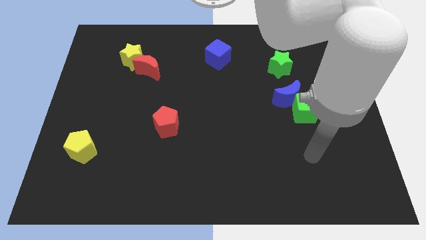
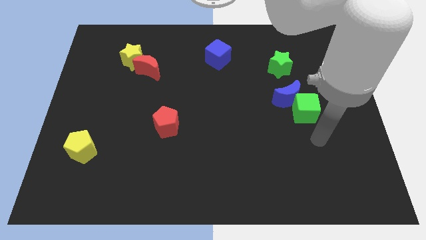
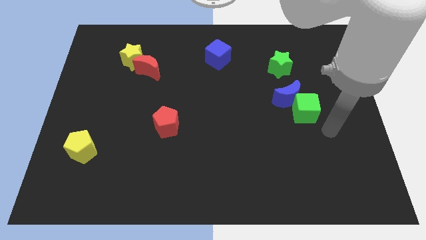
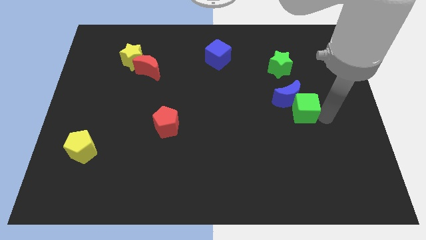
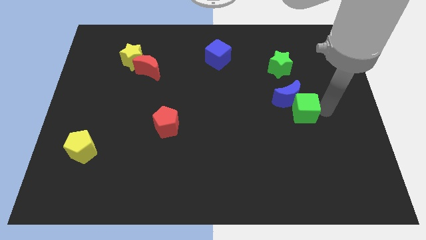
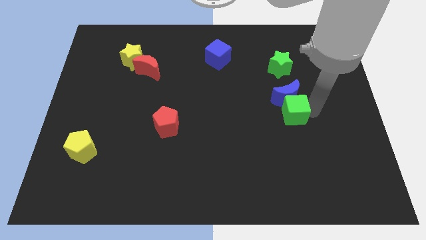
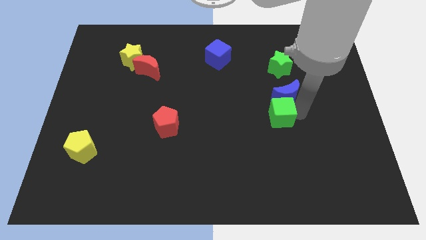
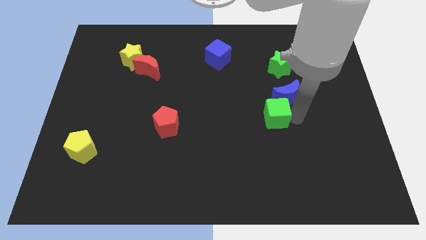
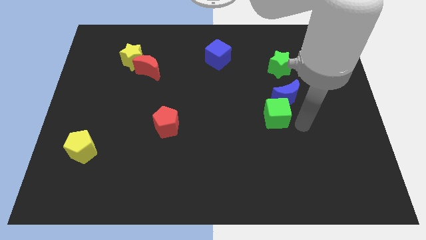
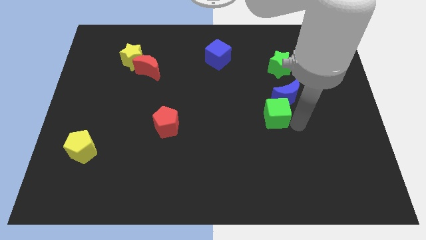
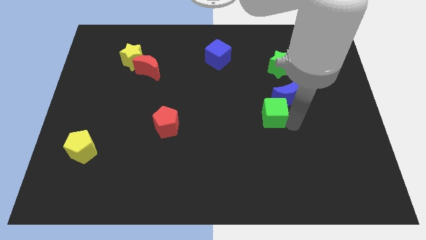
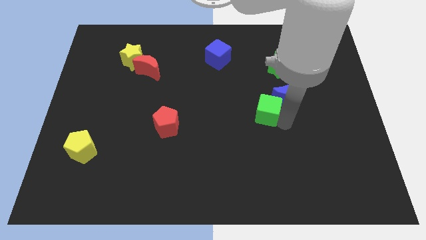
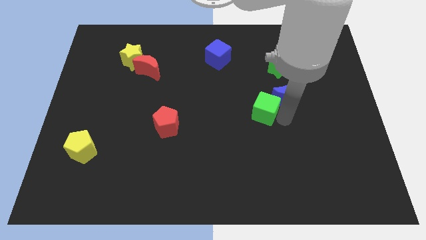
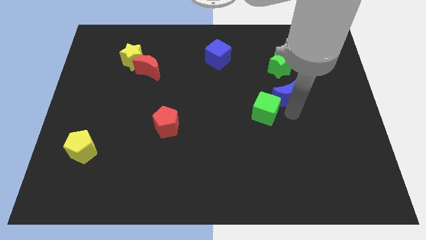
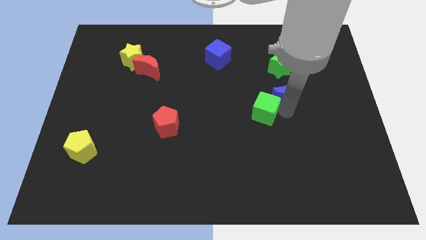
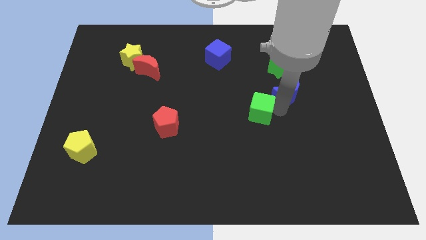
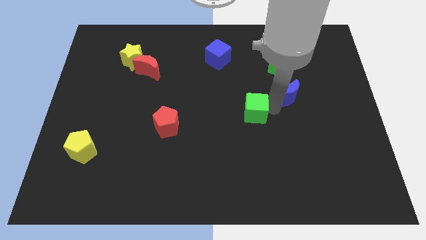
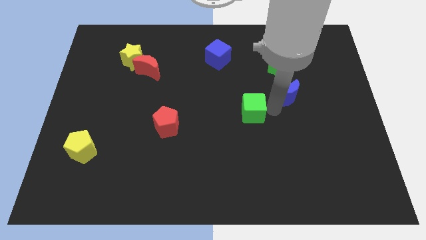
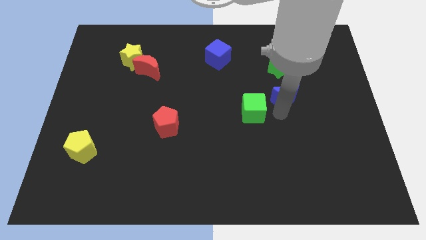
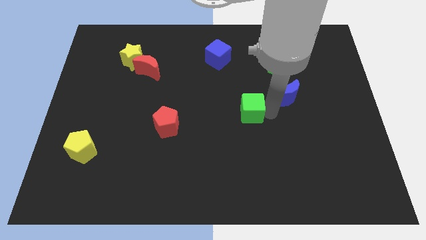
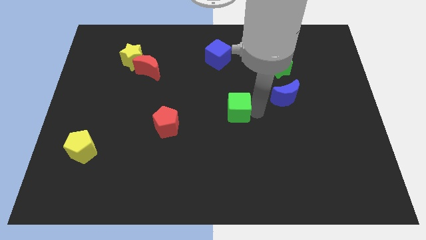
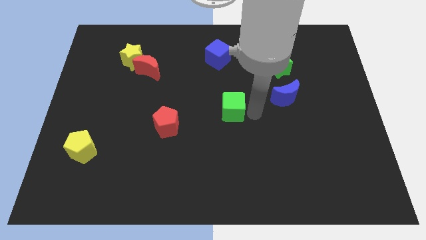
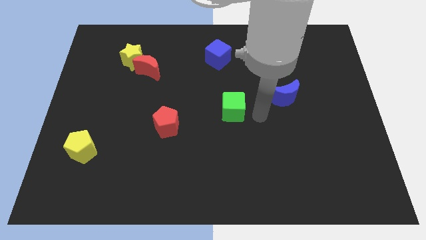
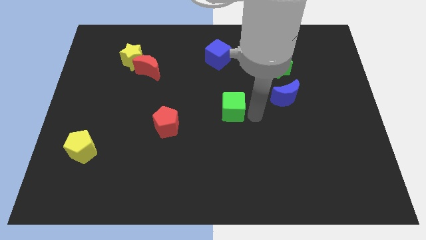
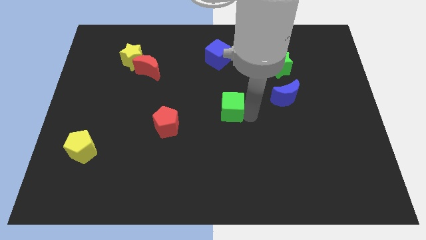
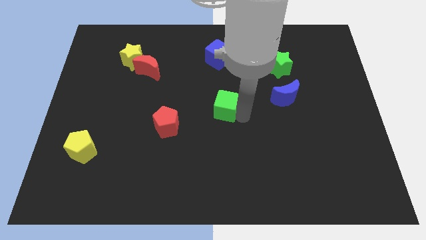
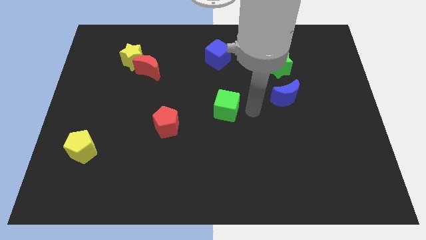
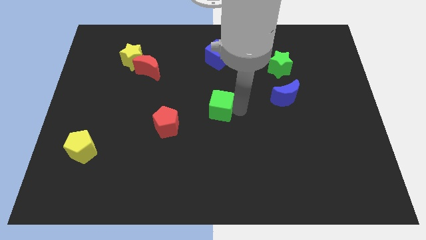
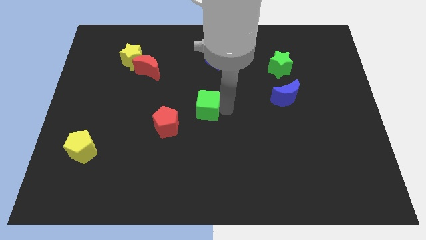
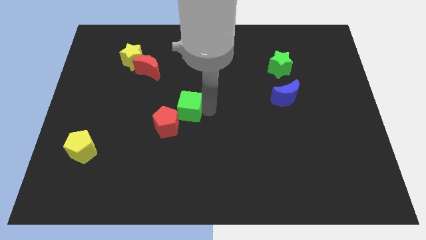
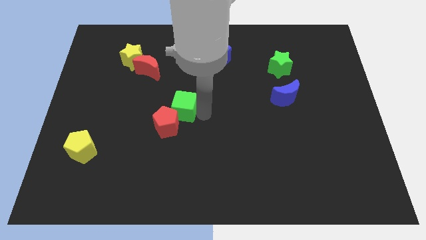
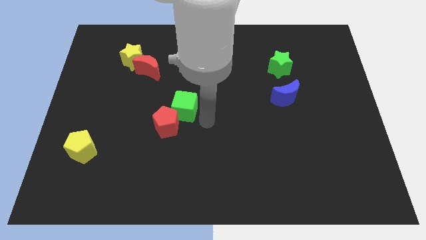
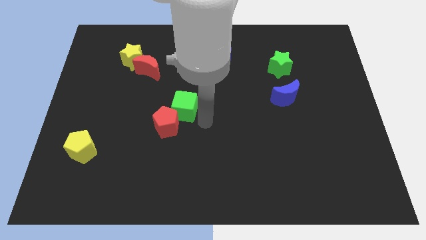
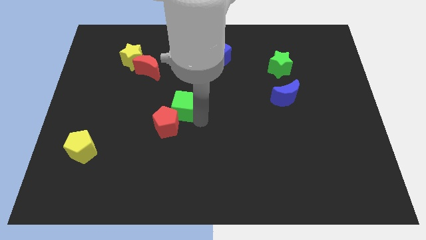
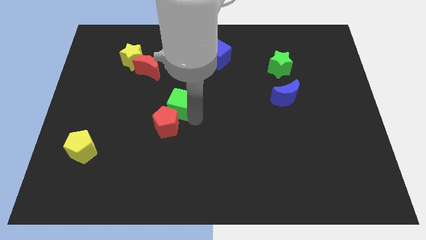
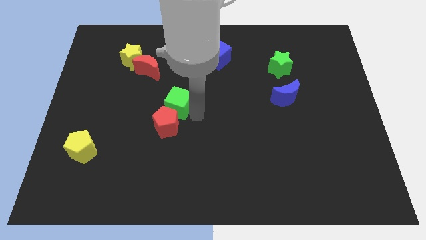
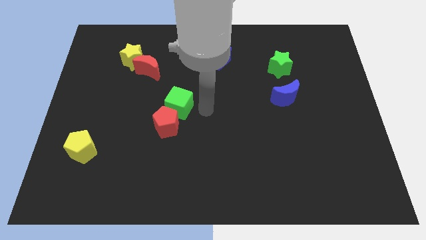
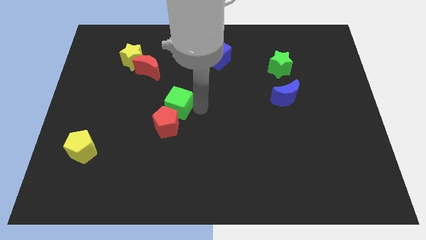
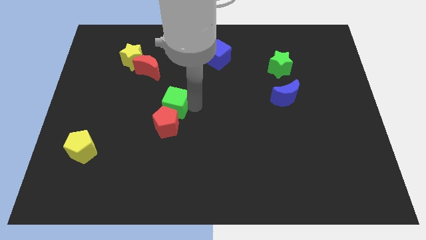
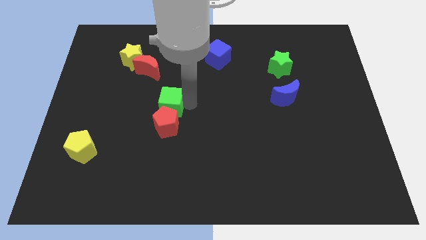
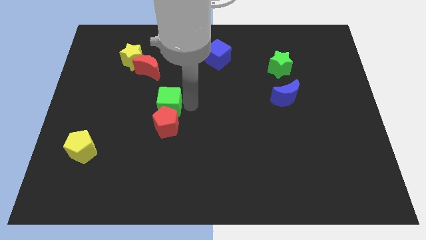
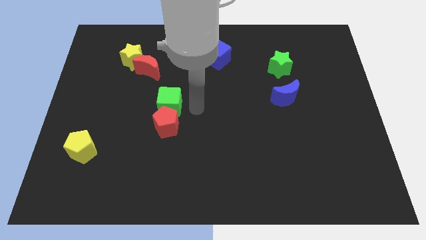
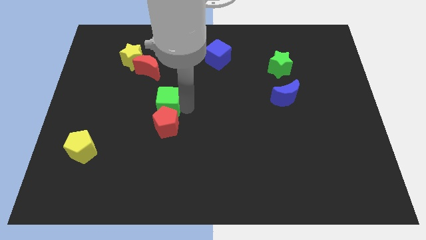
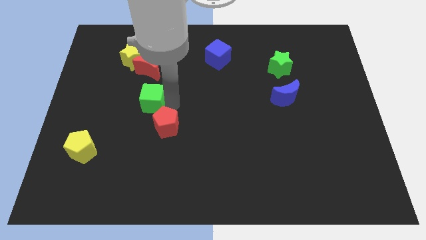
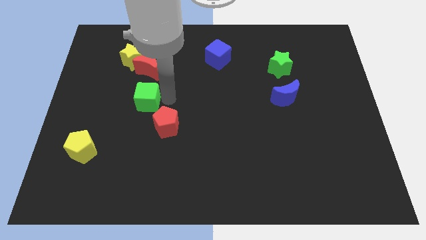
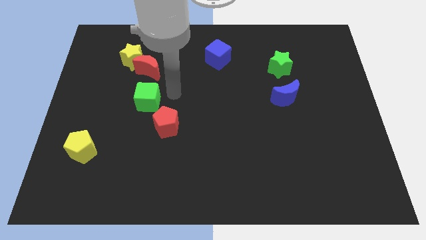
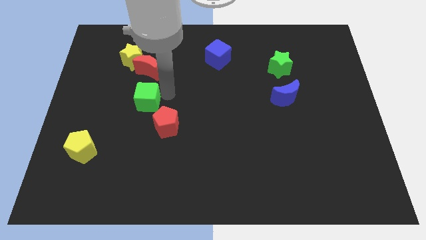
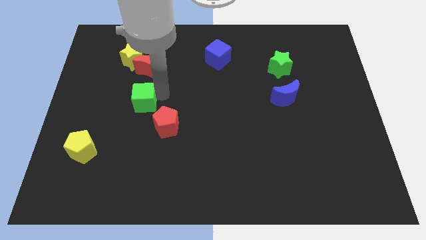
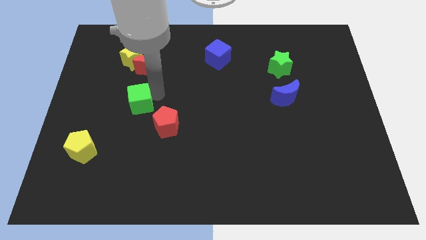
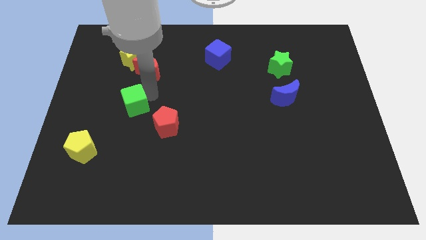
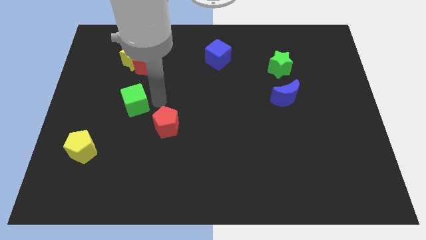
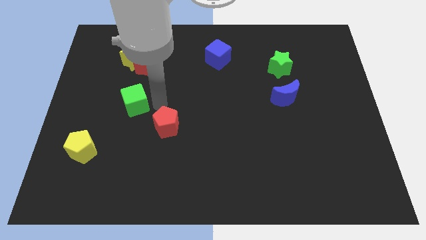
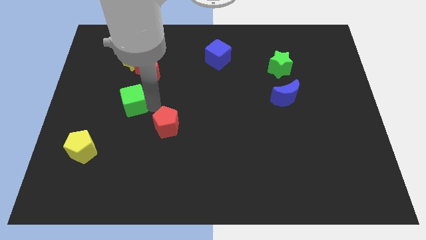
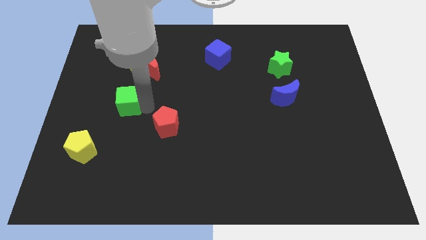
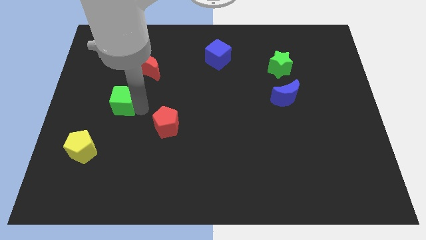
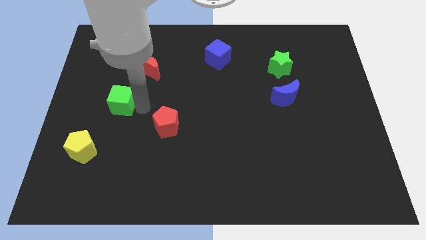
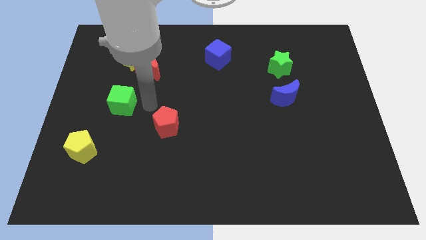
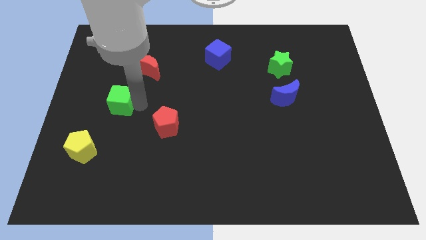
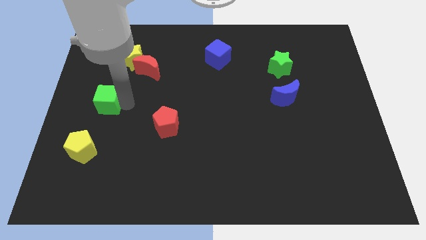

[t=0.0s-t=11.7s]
put the green cube to the center left
